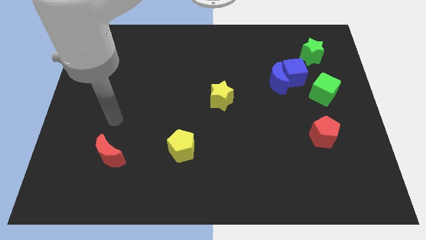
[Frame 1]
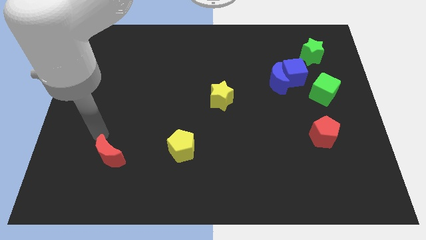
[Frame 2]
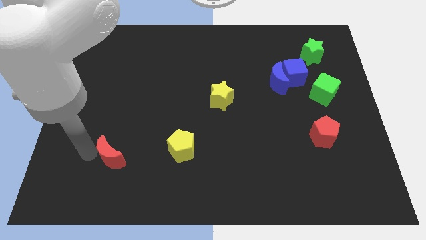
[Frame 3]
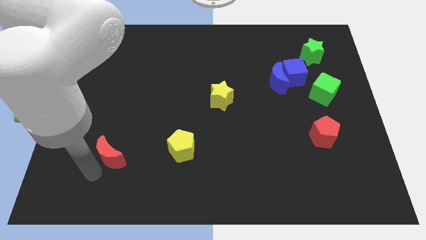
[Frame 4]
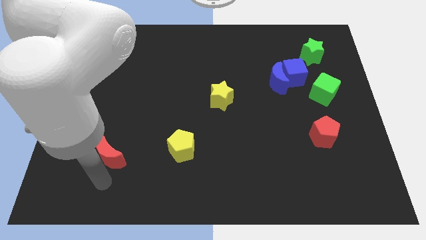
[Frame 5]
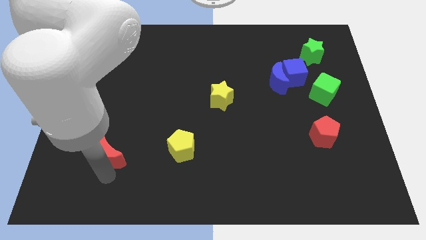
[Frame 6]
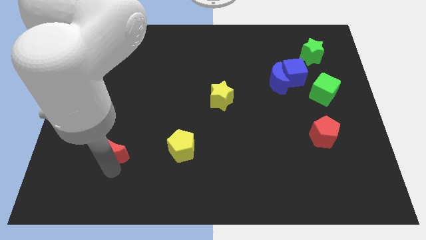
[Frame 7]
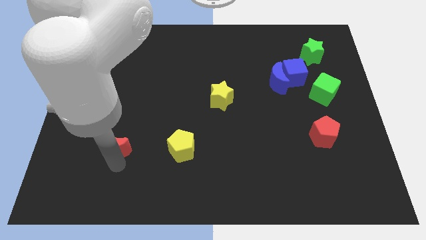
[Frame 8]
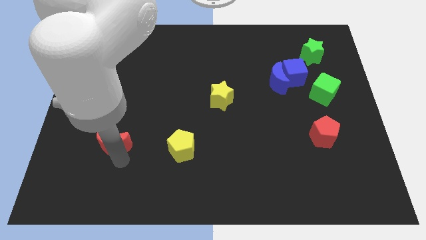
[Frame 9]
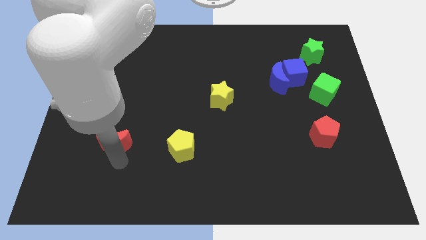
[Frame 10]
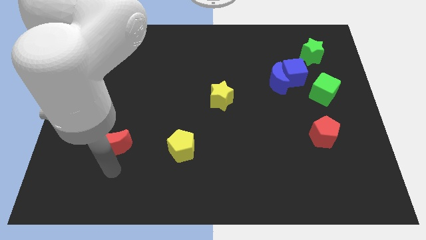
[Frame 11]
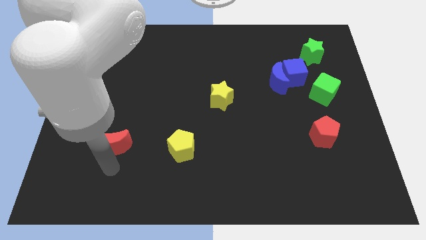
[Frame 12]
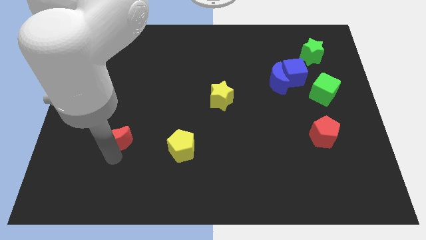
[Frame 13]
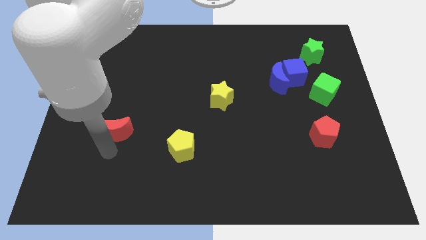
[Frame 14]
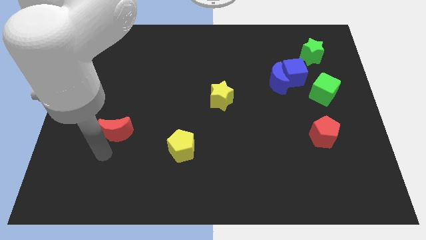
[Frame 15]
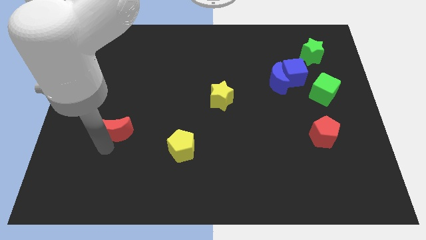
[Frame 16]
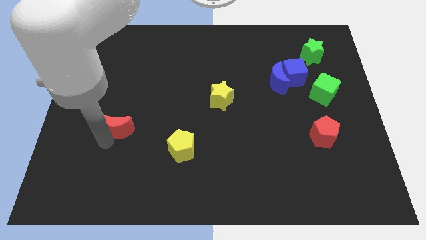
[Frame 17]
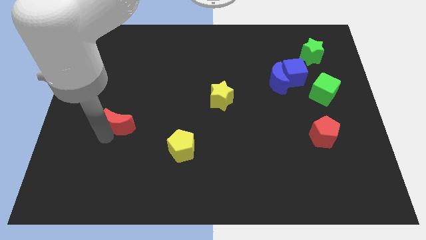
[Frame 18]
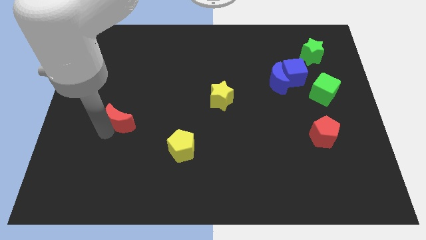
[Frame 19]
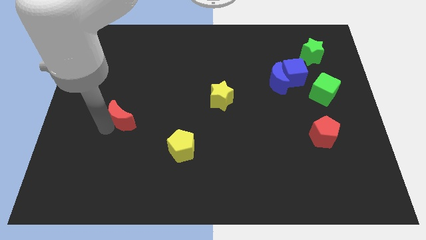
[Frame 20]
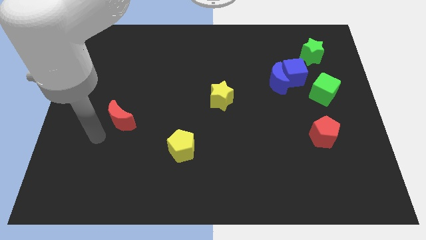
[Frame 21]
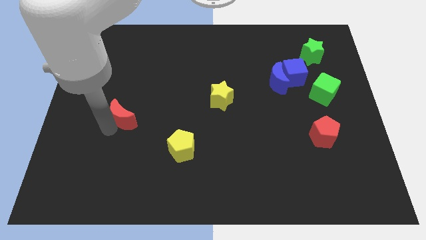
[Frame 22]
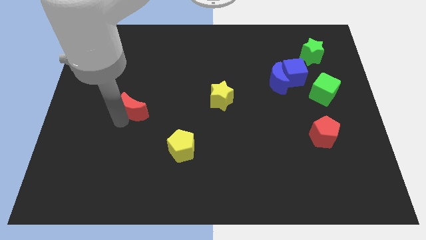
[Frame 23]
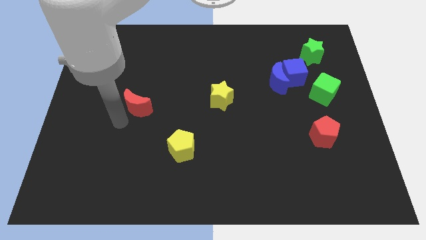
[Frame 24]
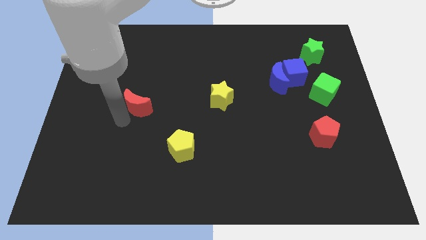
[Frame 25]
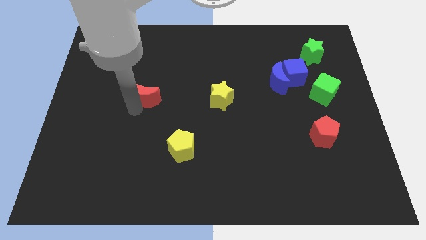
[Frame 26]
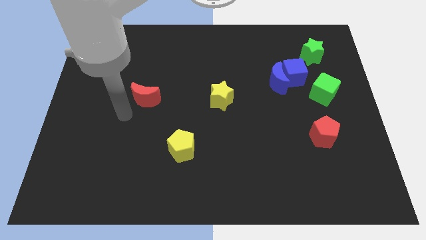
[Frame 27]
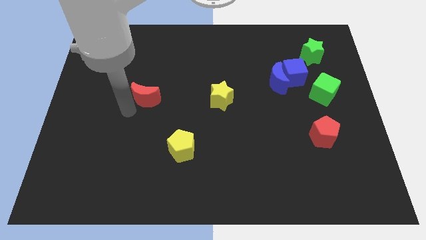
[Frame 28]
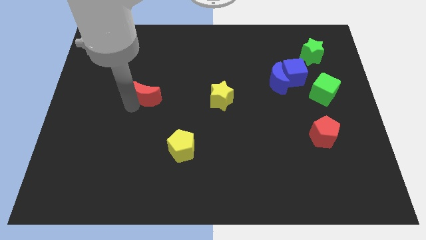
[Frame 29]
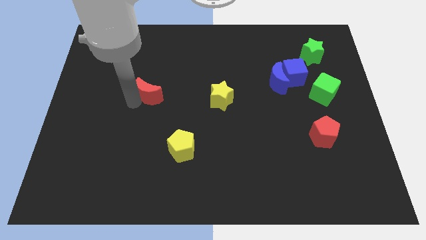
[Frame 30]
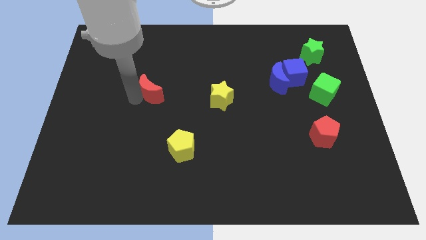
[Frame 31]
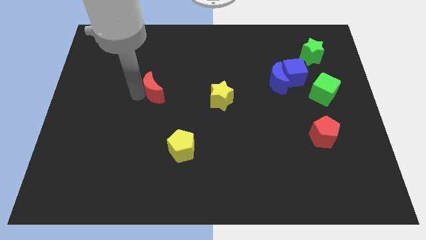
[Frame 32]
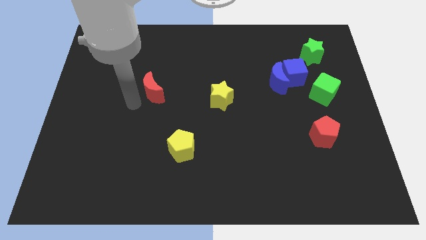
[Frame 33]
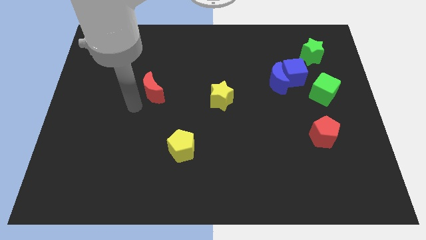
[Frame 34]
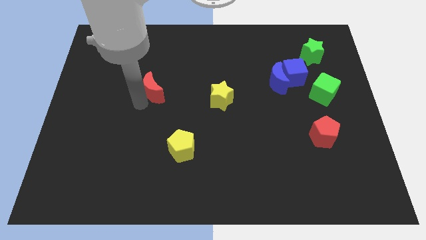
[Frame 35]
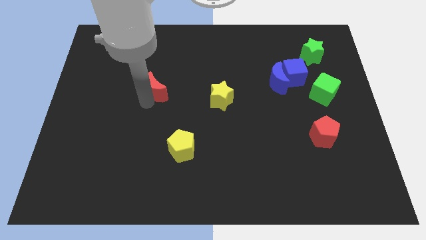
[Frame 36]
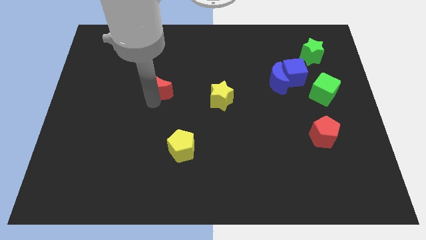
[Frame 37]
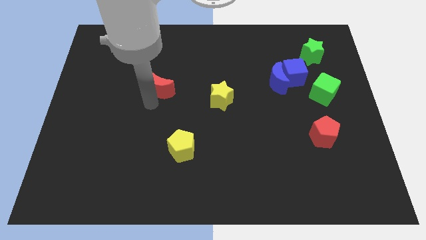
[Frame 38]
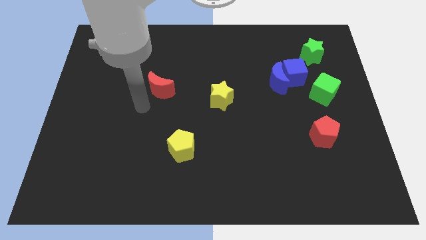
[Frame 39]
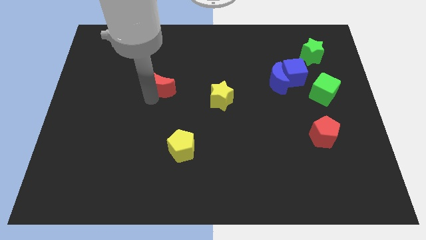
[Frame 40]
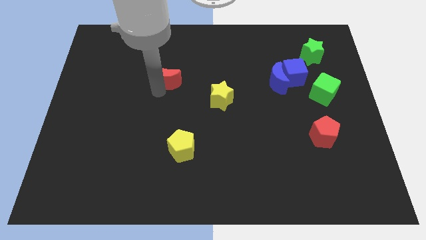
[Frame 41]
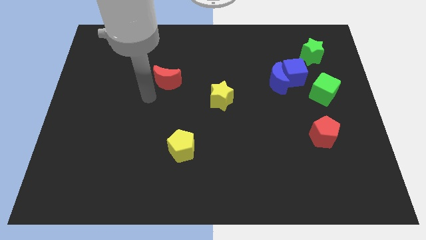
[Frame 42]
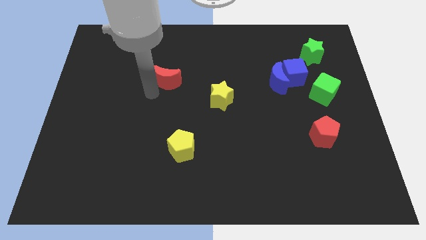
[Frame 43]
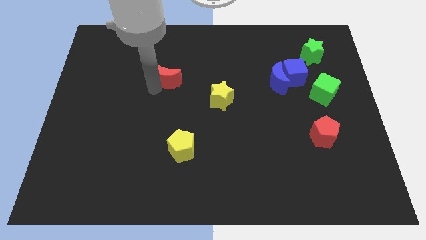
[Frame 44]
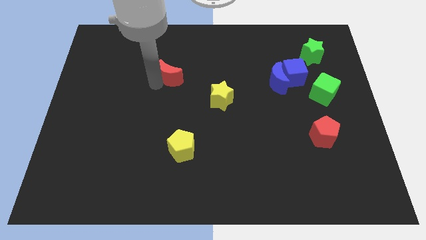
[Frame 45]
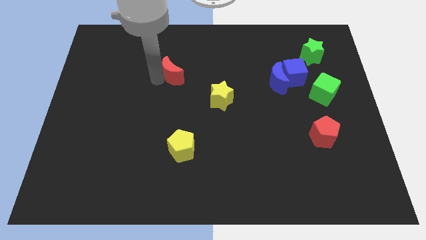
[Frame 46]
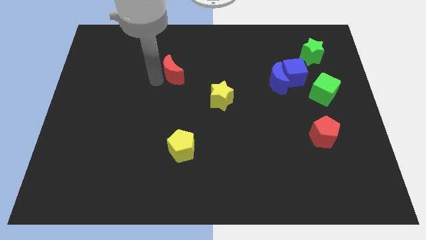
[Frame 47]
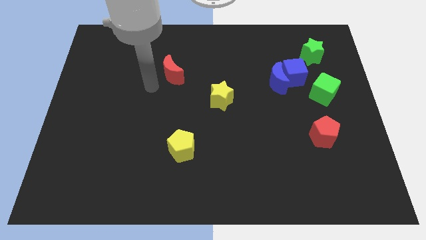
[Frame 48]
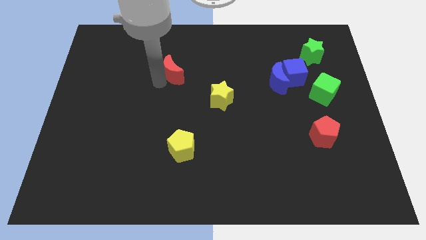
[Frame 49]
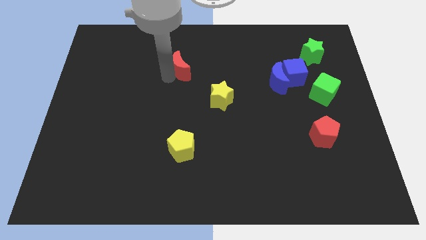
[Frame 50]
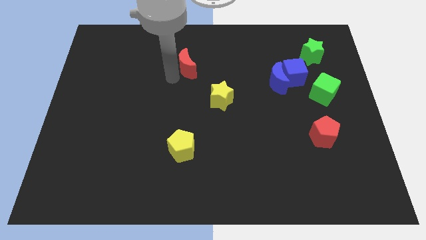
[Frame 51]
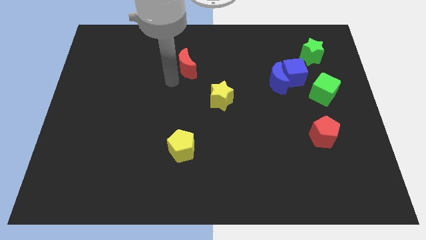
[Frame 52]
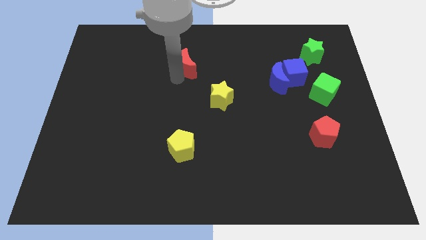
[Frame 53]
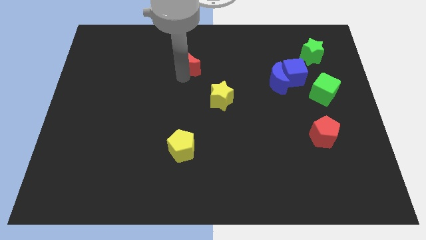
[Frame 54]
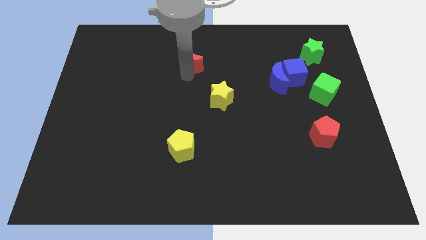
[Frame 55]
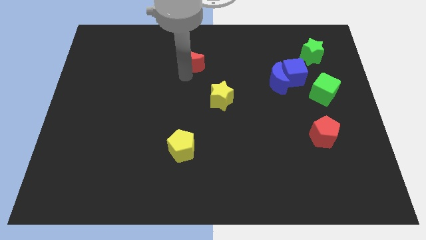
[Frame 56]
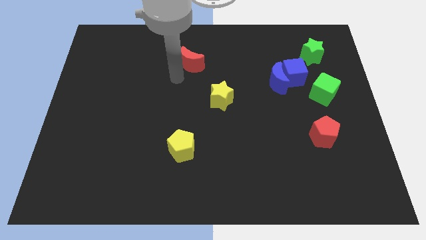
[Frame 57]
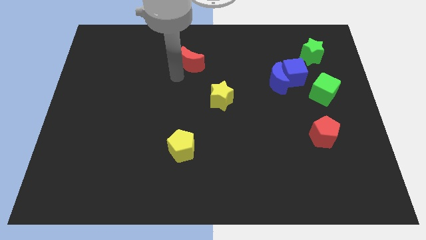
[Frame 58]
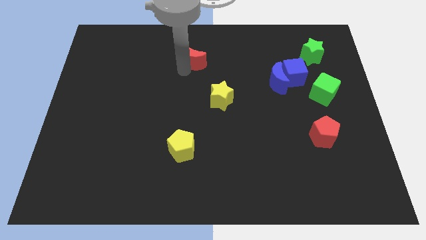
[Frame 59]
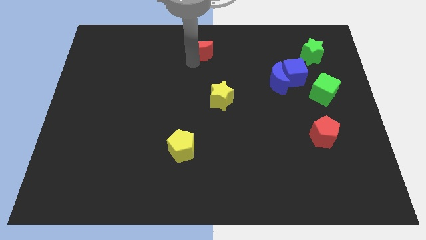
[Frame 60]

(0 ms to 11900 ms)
put the red moon to the top
